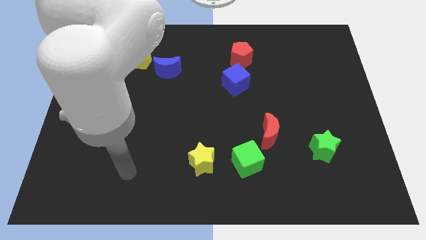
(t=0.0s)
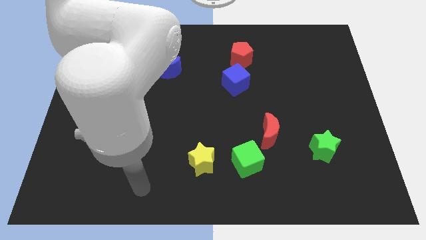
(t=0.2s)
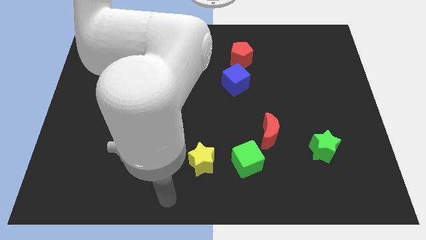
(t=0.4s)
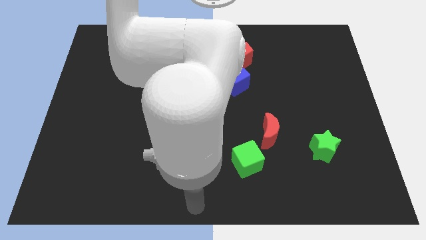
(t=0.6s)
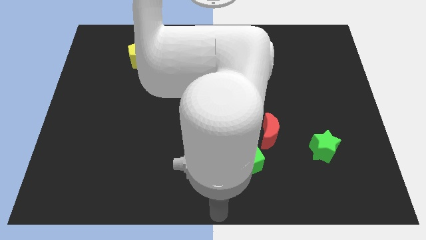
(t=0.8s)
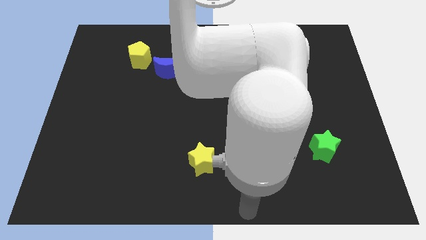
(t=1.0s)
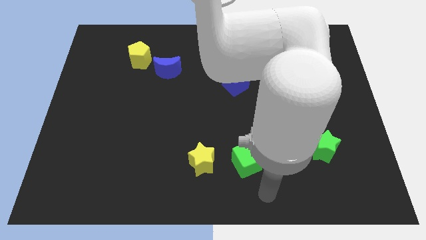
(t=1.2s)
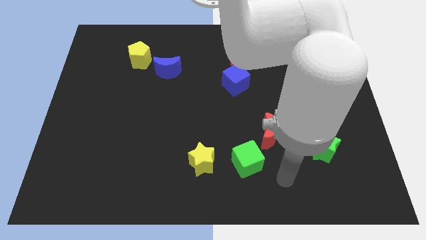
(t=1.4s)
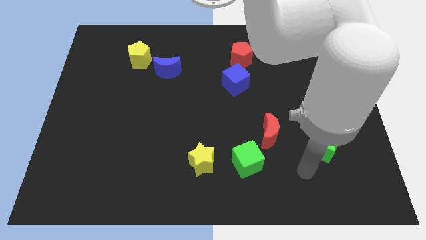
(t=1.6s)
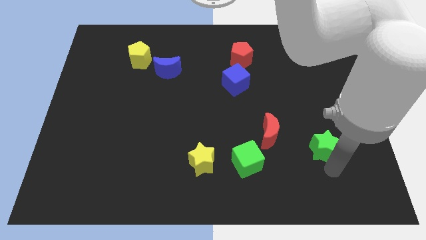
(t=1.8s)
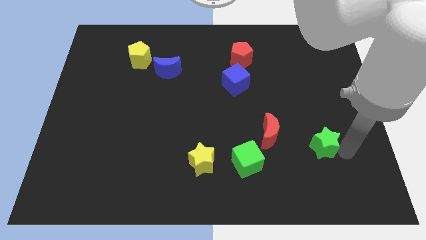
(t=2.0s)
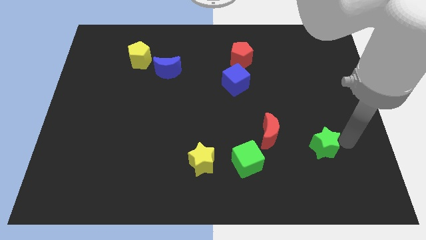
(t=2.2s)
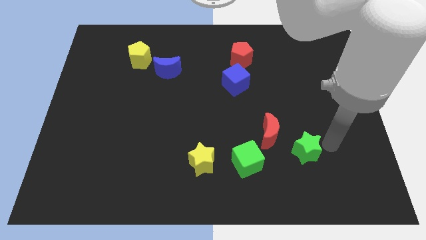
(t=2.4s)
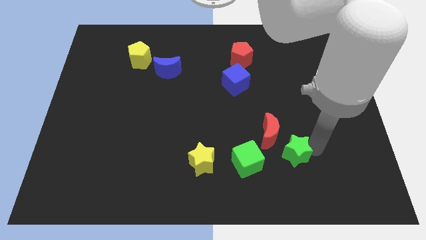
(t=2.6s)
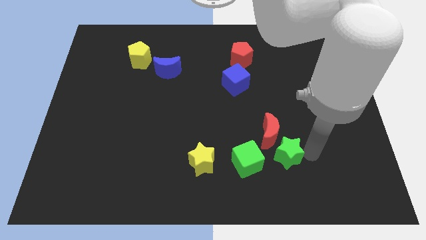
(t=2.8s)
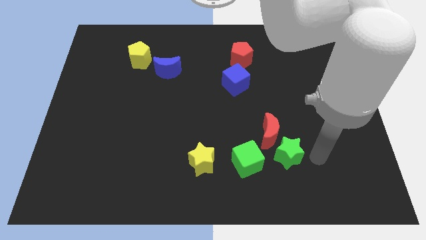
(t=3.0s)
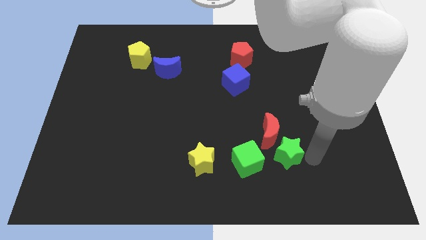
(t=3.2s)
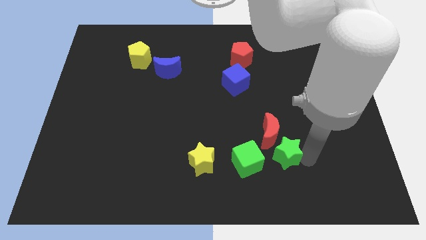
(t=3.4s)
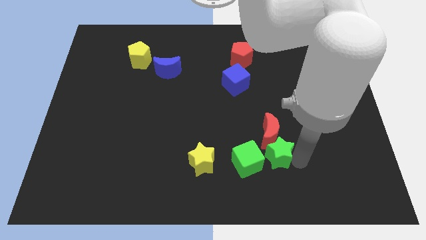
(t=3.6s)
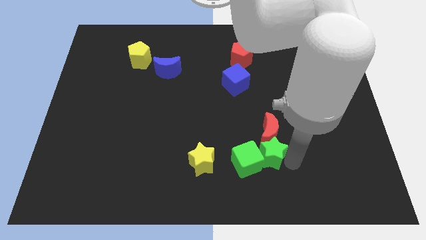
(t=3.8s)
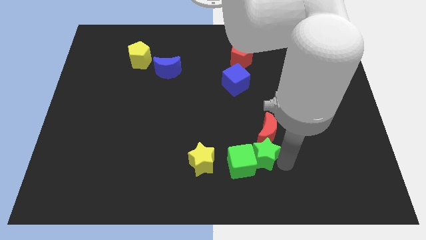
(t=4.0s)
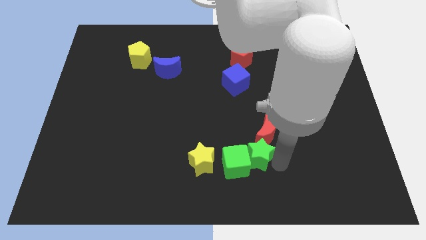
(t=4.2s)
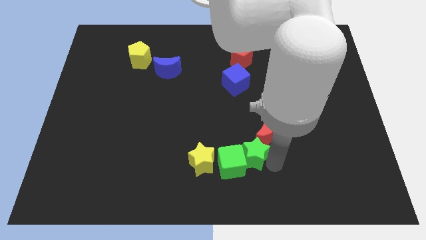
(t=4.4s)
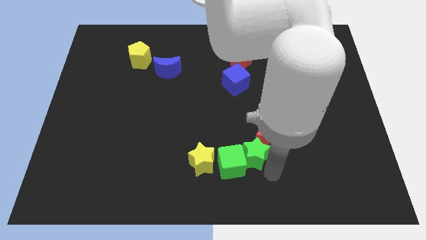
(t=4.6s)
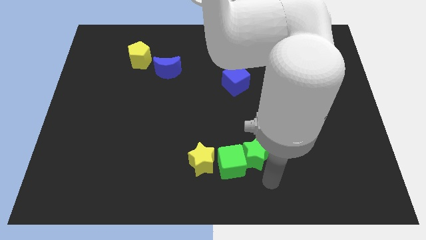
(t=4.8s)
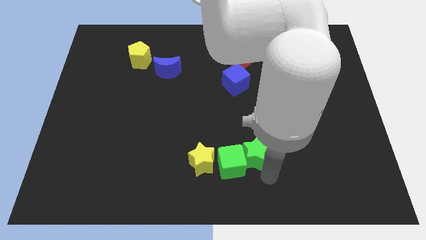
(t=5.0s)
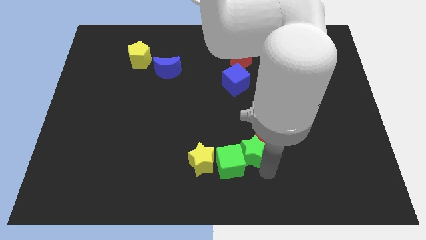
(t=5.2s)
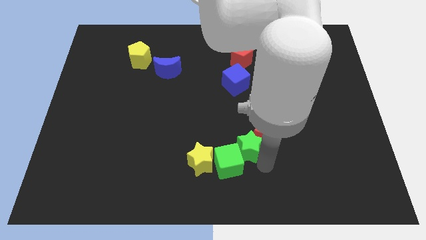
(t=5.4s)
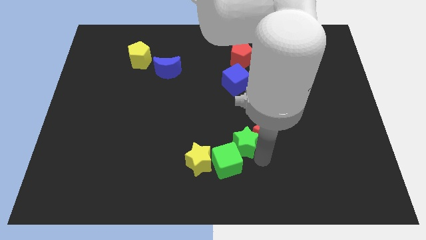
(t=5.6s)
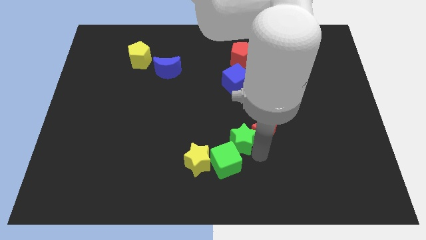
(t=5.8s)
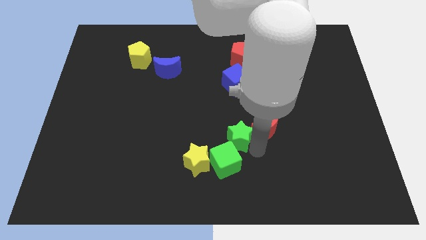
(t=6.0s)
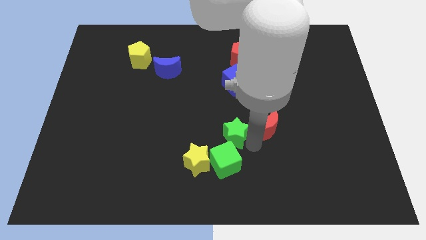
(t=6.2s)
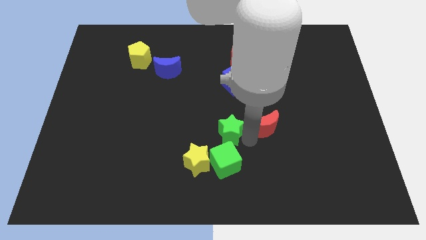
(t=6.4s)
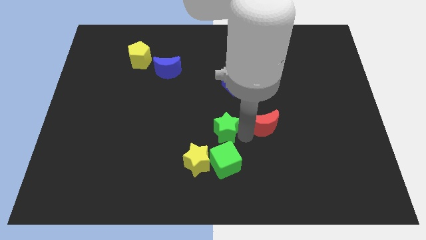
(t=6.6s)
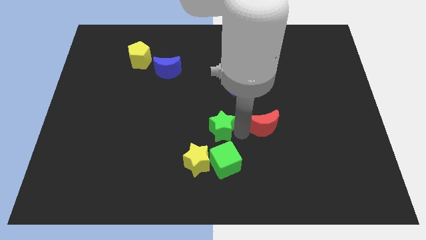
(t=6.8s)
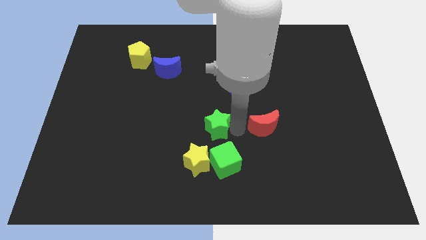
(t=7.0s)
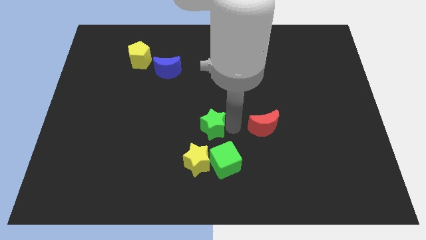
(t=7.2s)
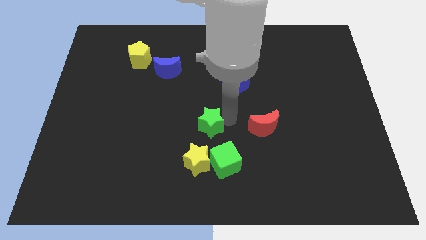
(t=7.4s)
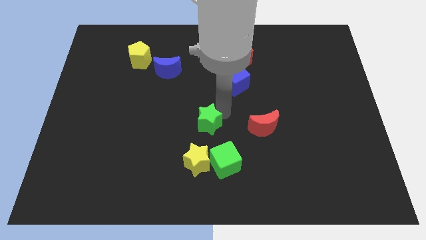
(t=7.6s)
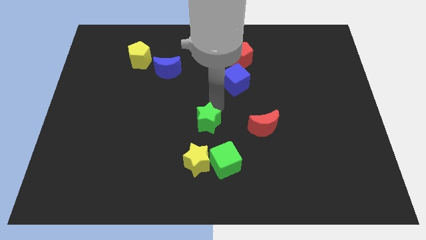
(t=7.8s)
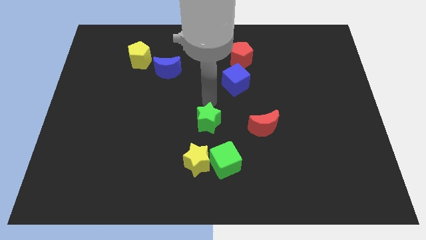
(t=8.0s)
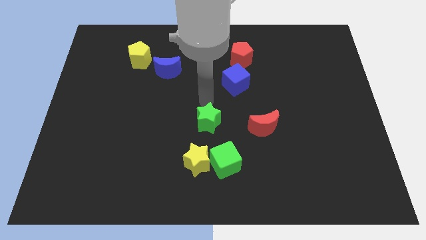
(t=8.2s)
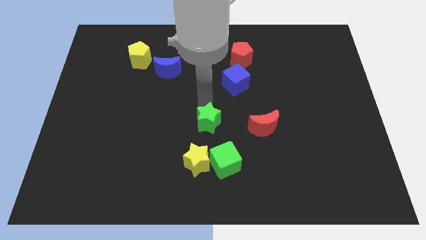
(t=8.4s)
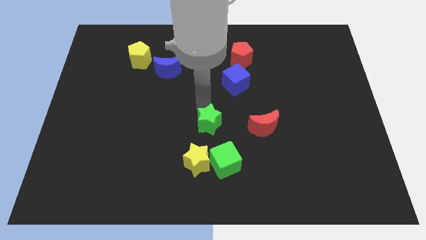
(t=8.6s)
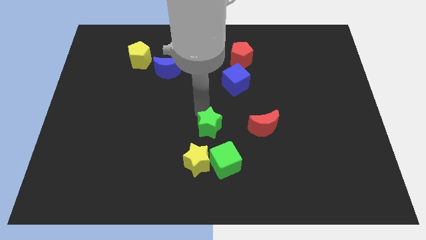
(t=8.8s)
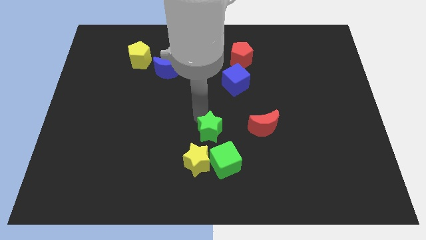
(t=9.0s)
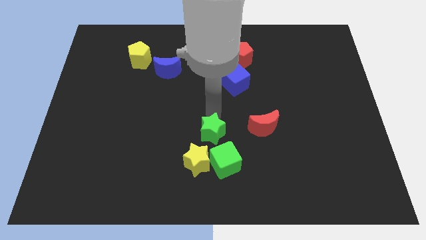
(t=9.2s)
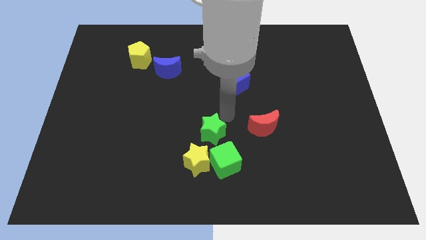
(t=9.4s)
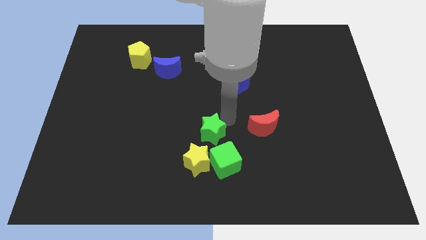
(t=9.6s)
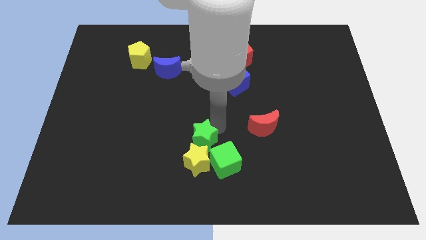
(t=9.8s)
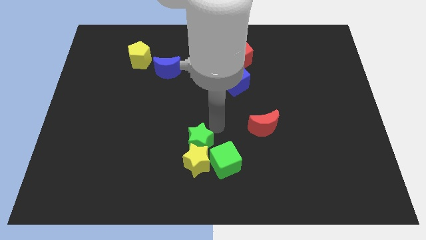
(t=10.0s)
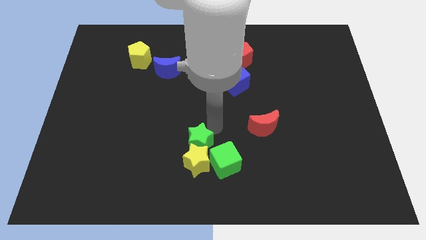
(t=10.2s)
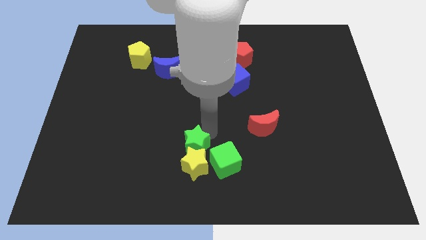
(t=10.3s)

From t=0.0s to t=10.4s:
move the green star to the left side of the green cube
